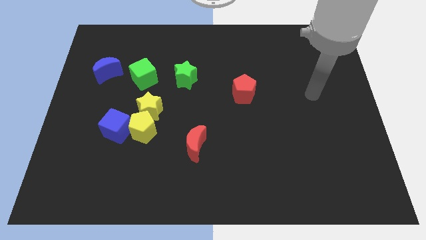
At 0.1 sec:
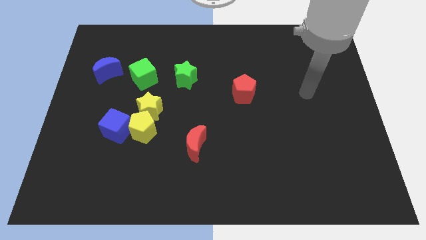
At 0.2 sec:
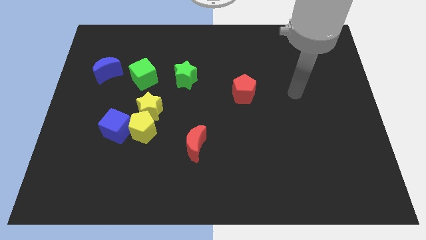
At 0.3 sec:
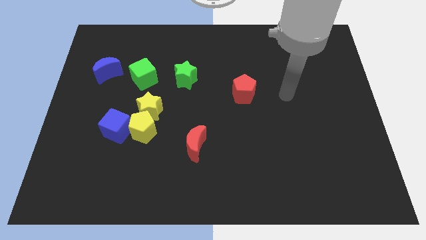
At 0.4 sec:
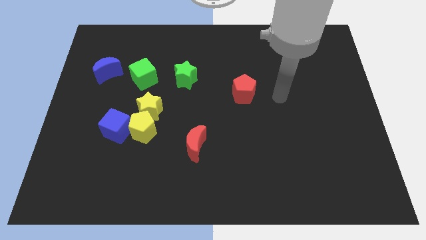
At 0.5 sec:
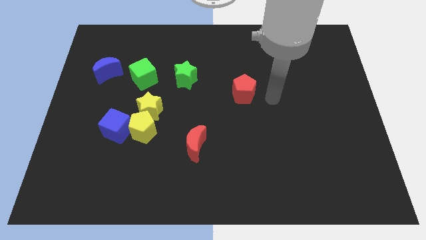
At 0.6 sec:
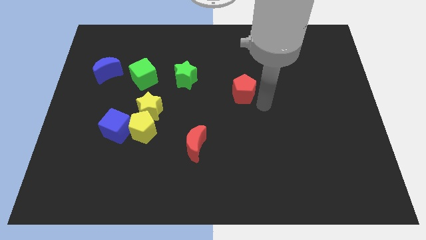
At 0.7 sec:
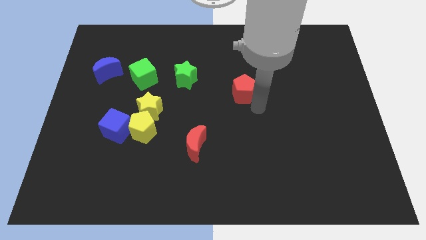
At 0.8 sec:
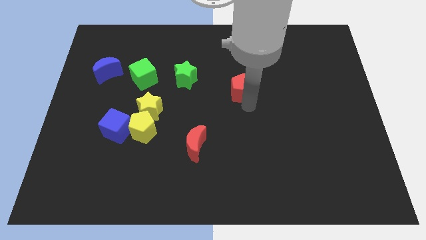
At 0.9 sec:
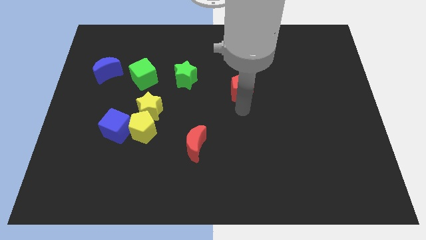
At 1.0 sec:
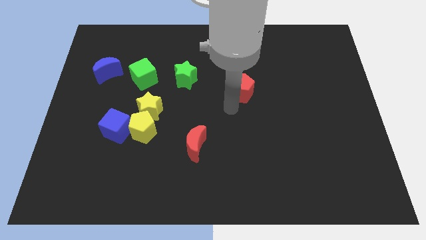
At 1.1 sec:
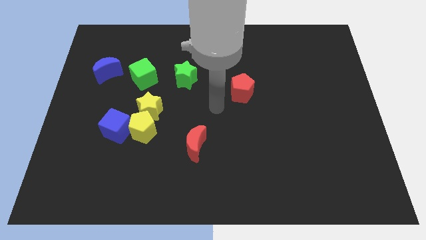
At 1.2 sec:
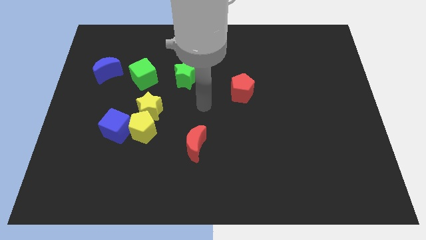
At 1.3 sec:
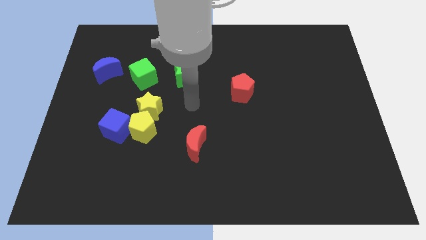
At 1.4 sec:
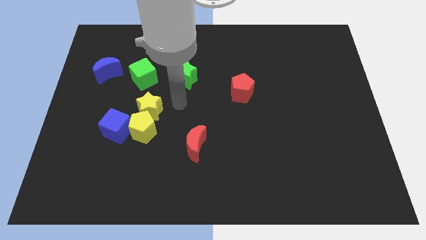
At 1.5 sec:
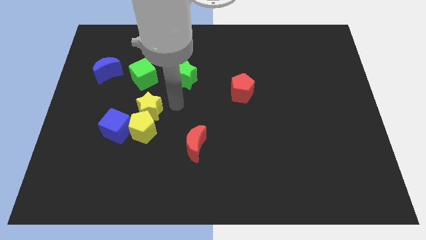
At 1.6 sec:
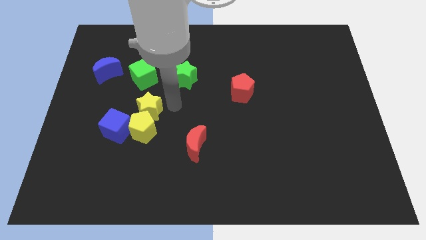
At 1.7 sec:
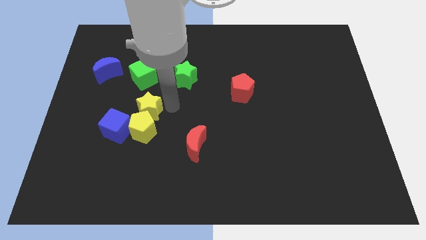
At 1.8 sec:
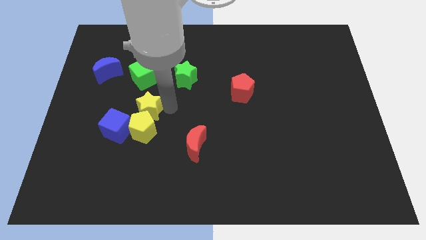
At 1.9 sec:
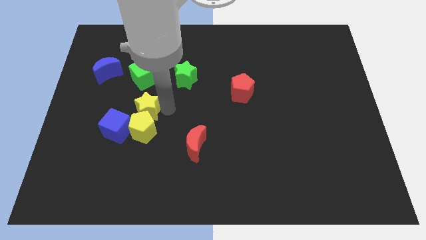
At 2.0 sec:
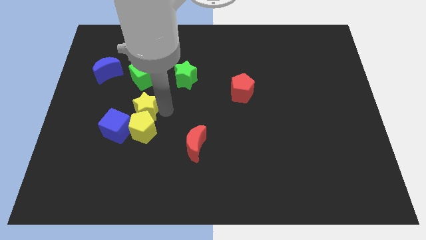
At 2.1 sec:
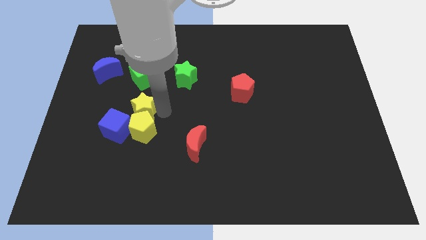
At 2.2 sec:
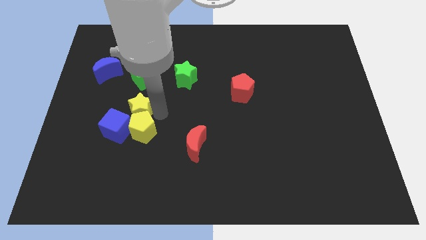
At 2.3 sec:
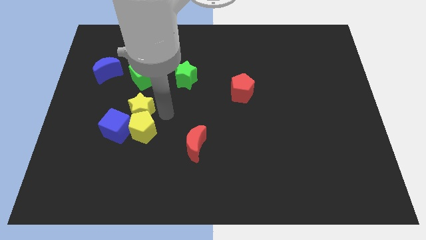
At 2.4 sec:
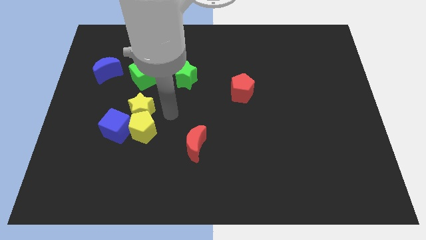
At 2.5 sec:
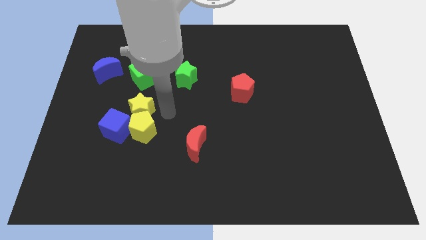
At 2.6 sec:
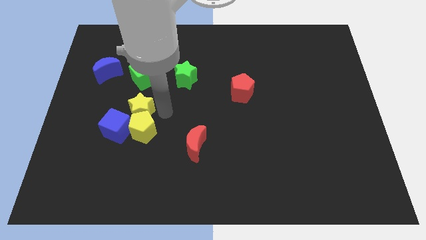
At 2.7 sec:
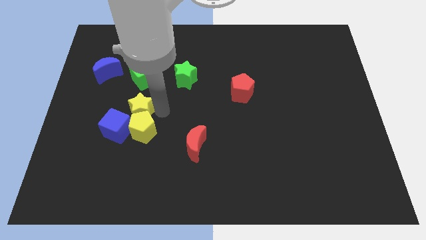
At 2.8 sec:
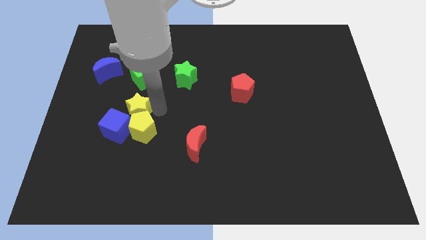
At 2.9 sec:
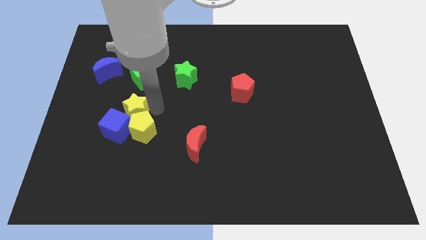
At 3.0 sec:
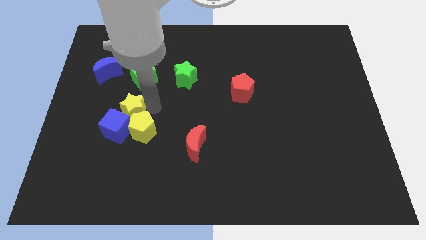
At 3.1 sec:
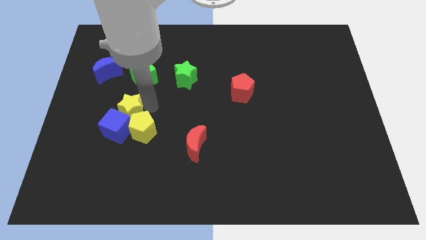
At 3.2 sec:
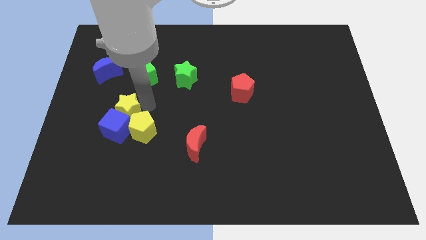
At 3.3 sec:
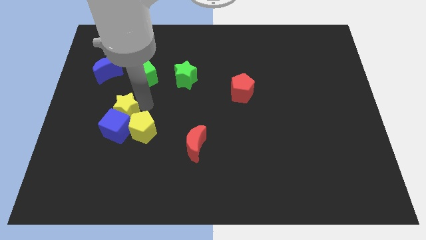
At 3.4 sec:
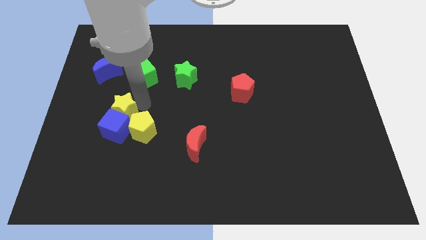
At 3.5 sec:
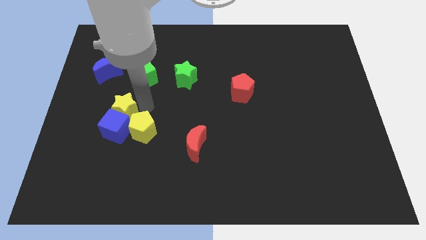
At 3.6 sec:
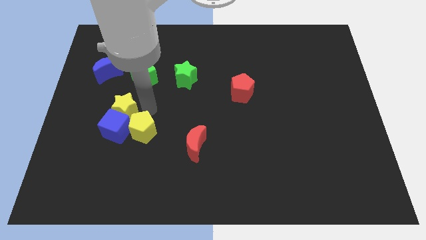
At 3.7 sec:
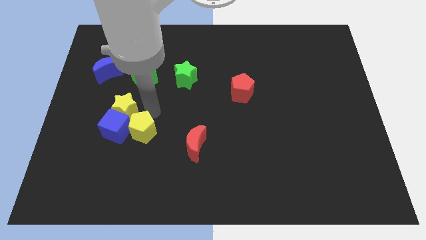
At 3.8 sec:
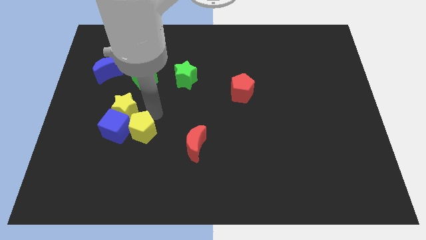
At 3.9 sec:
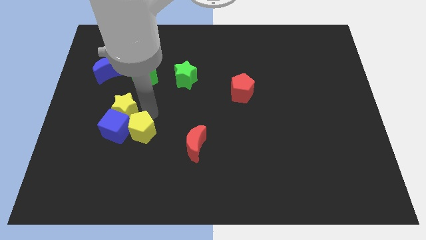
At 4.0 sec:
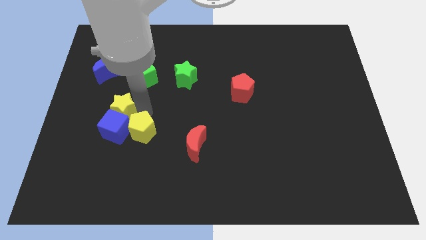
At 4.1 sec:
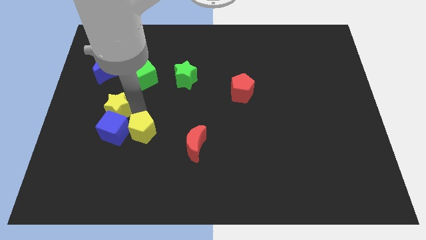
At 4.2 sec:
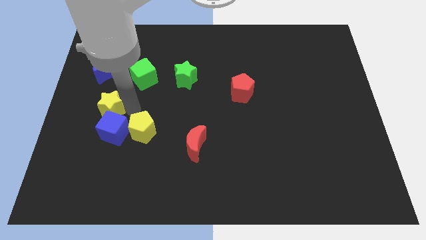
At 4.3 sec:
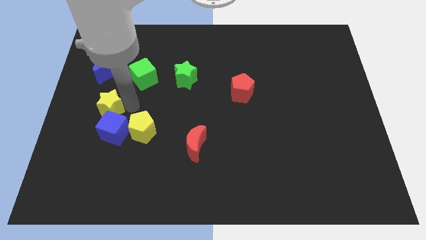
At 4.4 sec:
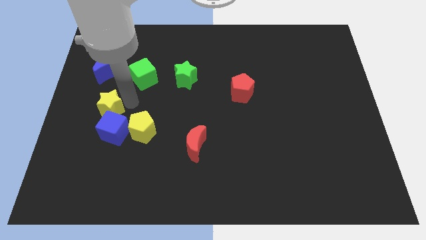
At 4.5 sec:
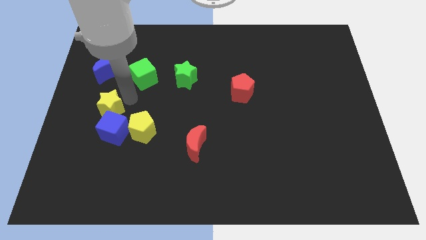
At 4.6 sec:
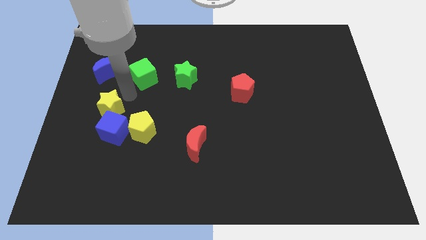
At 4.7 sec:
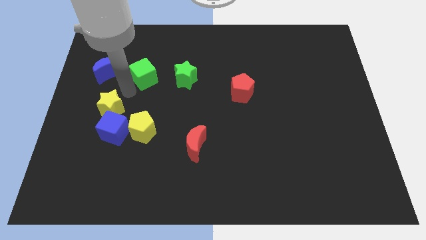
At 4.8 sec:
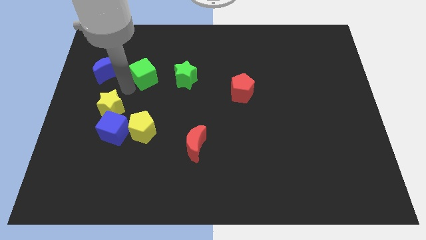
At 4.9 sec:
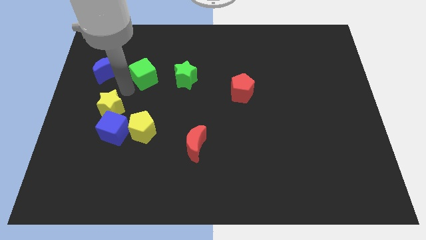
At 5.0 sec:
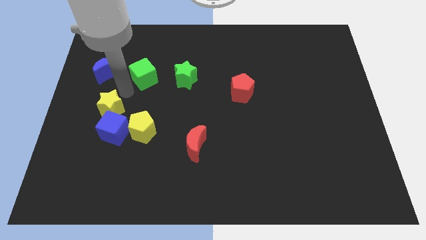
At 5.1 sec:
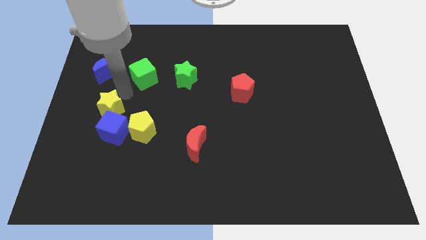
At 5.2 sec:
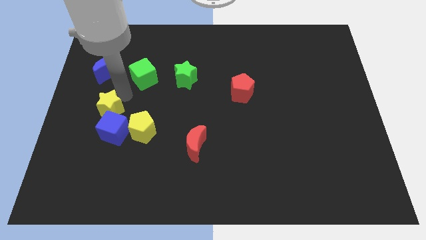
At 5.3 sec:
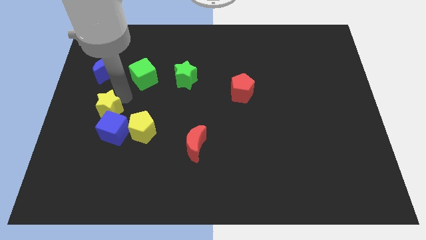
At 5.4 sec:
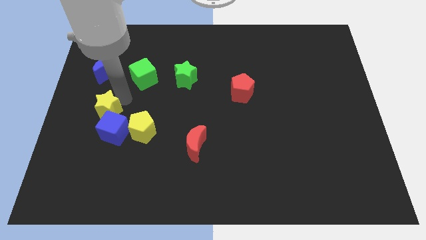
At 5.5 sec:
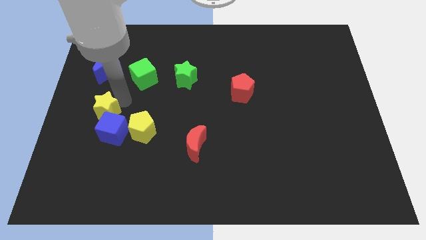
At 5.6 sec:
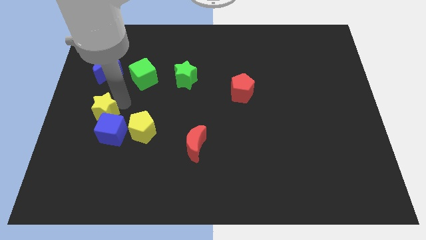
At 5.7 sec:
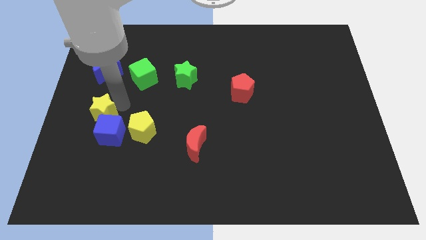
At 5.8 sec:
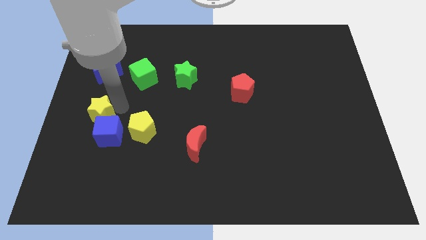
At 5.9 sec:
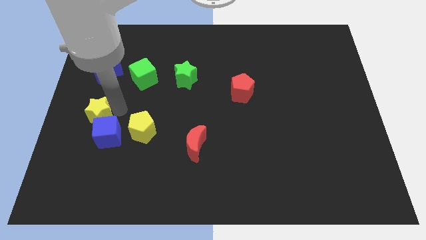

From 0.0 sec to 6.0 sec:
slide the yellow star diagonally downwards and left a bit

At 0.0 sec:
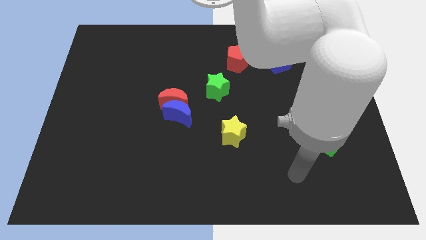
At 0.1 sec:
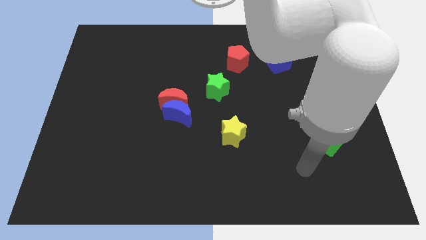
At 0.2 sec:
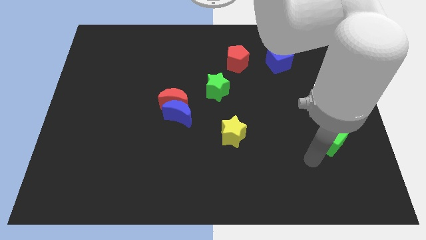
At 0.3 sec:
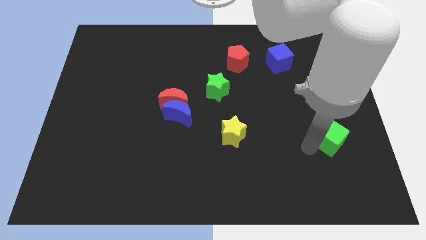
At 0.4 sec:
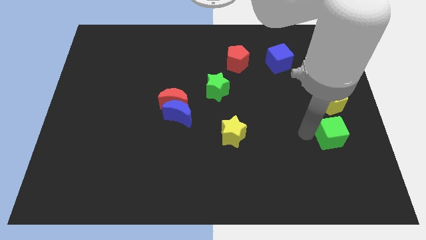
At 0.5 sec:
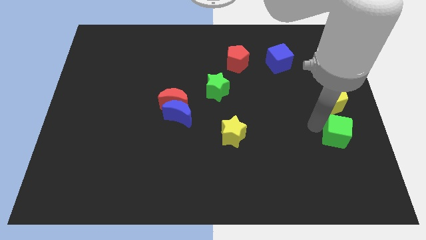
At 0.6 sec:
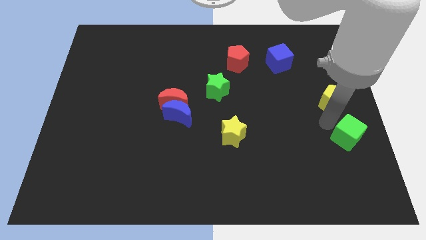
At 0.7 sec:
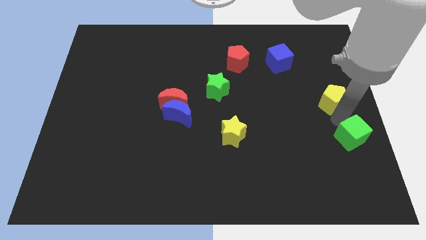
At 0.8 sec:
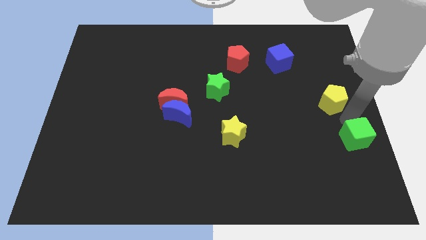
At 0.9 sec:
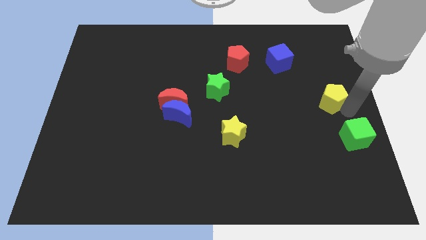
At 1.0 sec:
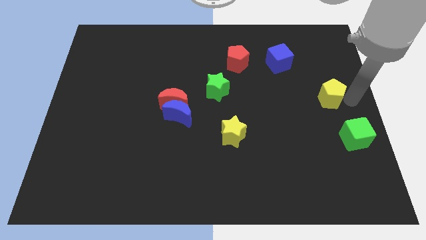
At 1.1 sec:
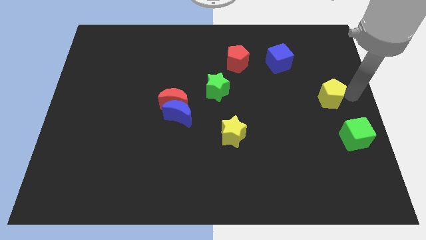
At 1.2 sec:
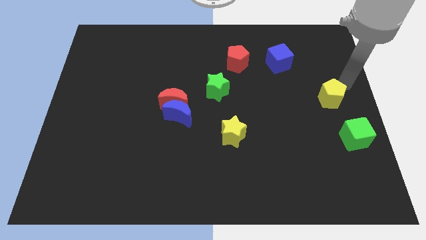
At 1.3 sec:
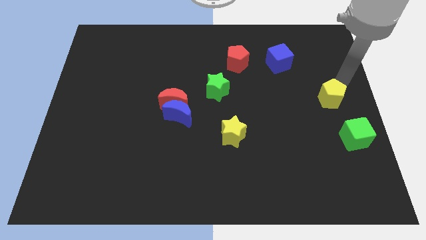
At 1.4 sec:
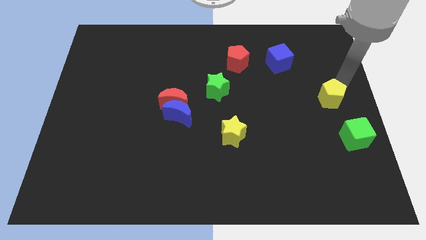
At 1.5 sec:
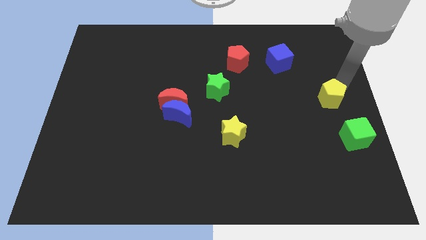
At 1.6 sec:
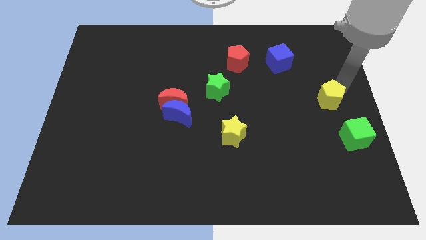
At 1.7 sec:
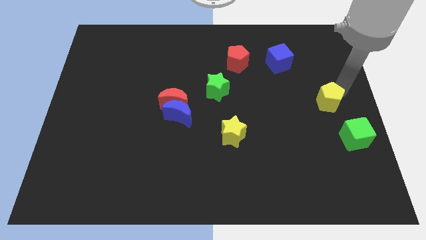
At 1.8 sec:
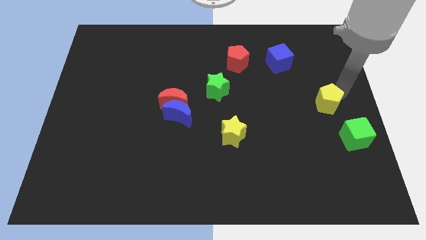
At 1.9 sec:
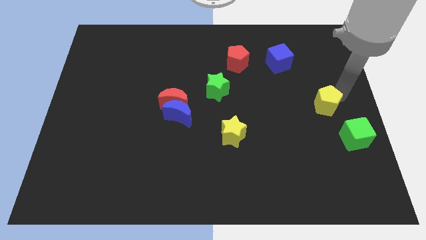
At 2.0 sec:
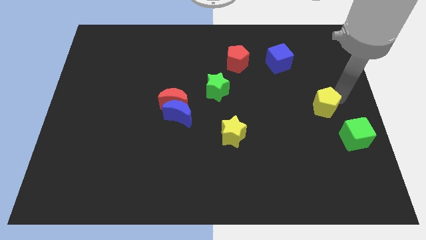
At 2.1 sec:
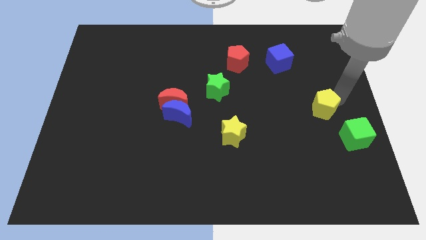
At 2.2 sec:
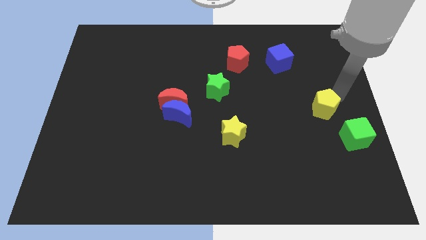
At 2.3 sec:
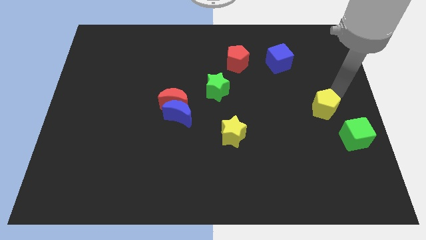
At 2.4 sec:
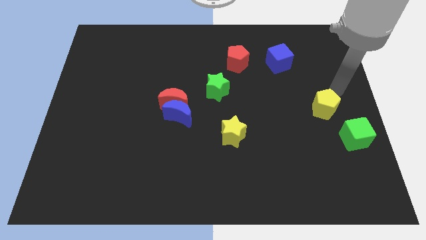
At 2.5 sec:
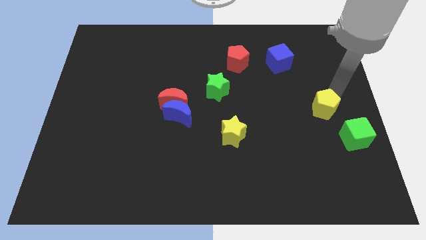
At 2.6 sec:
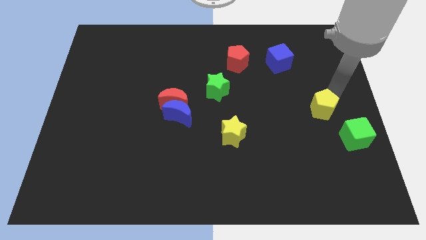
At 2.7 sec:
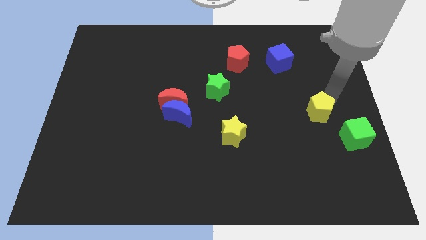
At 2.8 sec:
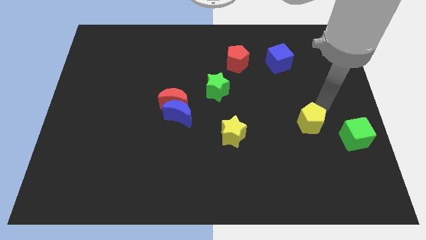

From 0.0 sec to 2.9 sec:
move the yellow pentagon a little bit down and to the left diagonally
